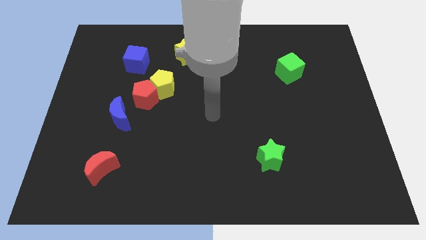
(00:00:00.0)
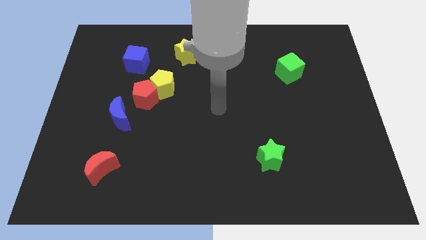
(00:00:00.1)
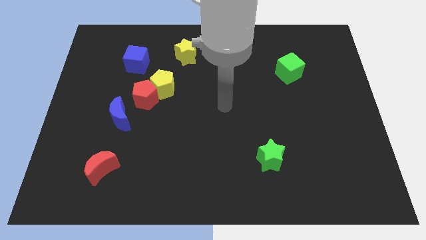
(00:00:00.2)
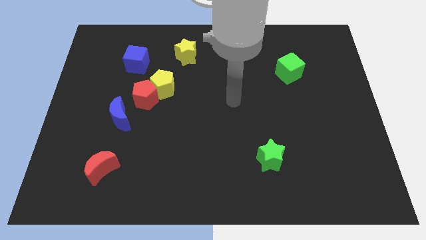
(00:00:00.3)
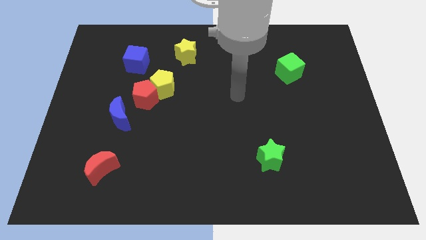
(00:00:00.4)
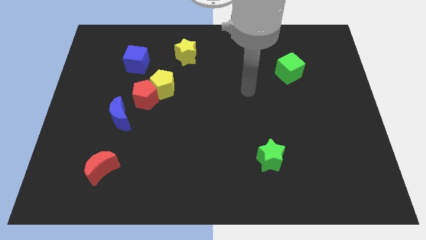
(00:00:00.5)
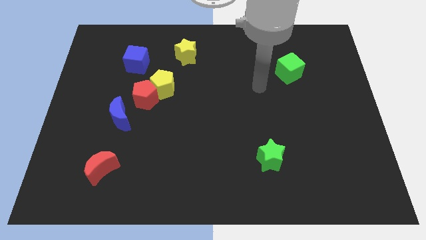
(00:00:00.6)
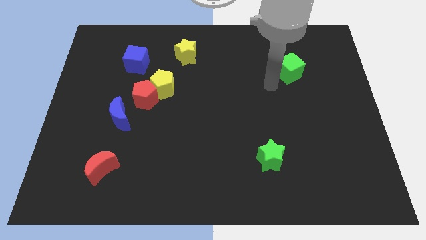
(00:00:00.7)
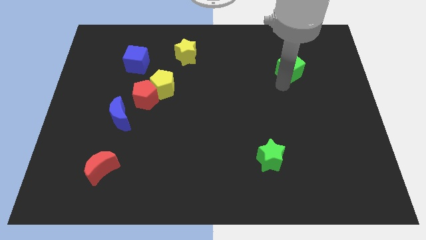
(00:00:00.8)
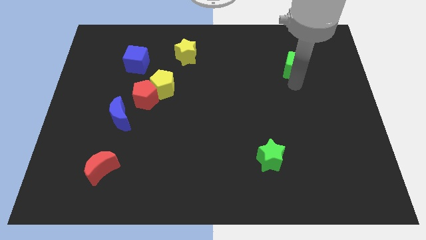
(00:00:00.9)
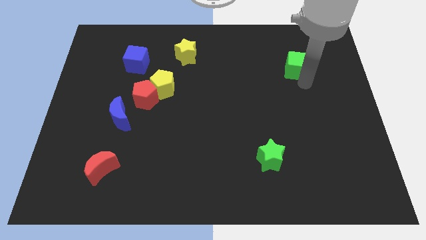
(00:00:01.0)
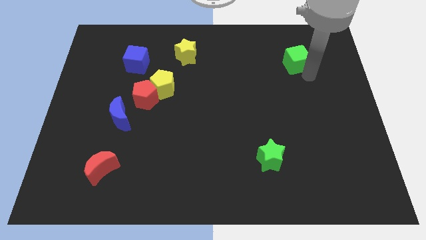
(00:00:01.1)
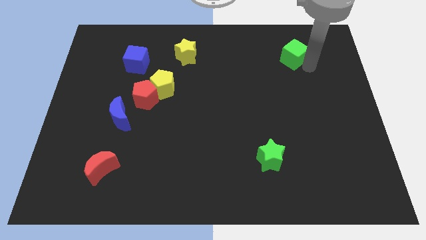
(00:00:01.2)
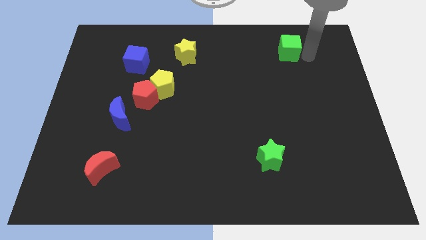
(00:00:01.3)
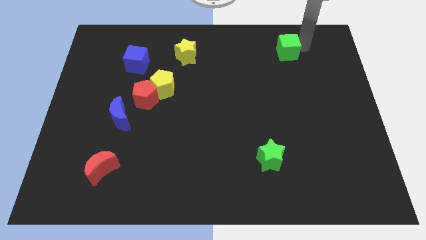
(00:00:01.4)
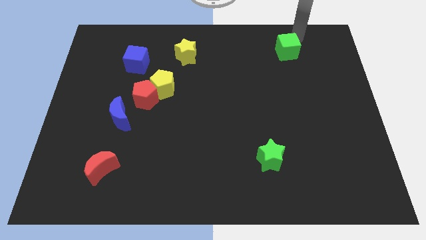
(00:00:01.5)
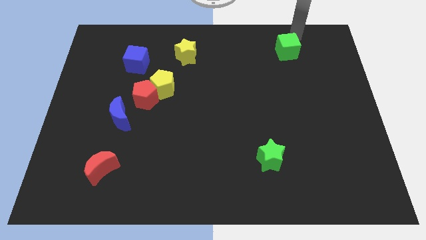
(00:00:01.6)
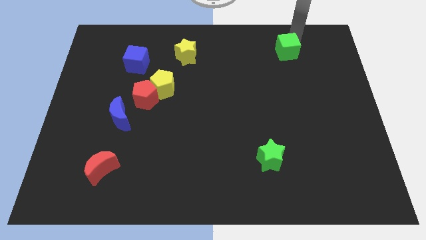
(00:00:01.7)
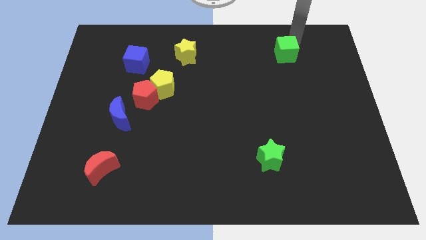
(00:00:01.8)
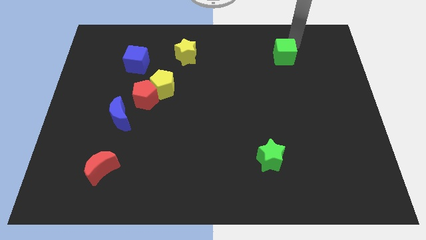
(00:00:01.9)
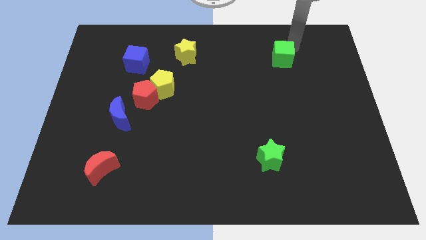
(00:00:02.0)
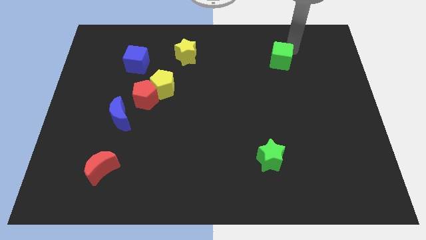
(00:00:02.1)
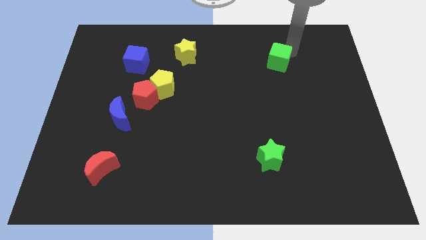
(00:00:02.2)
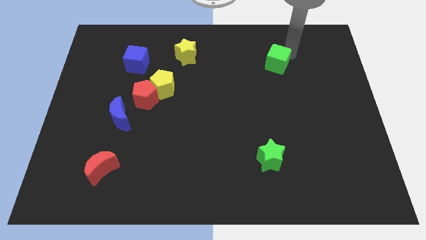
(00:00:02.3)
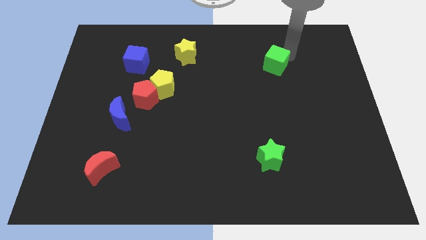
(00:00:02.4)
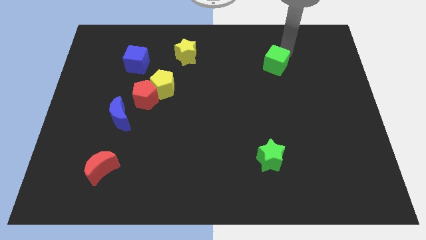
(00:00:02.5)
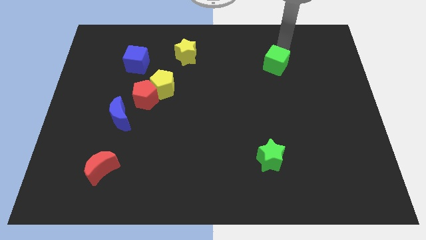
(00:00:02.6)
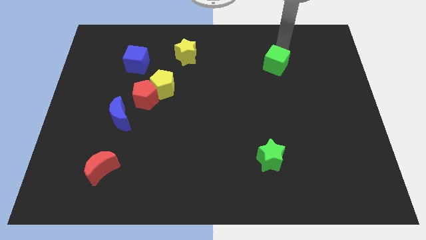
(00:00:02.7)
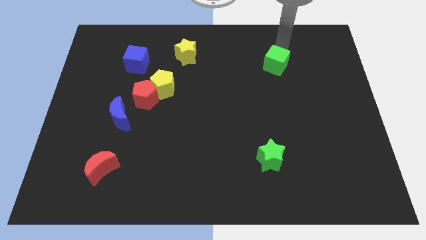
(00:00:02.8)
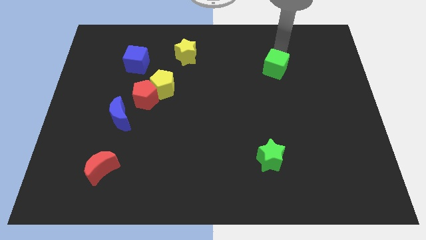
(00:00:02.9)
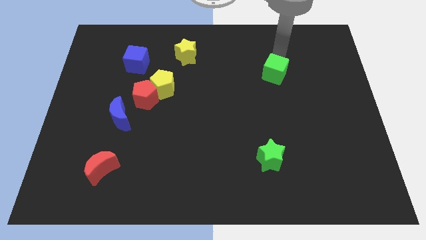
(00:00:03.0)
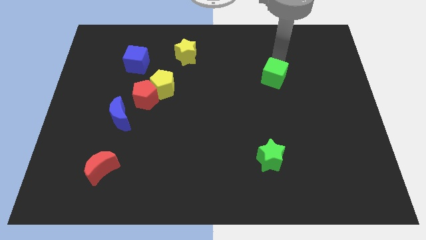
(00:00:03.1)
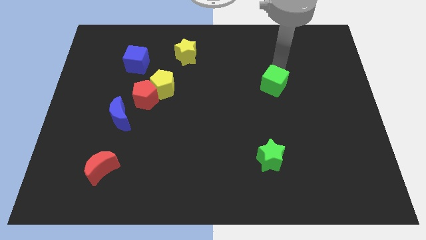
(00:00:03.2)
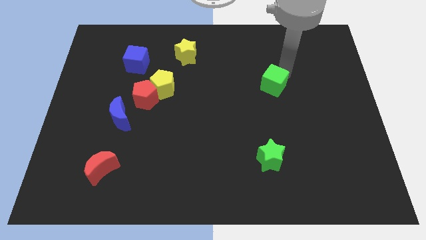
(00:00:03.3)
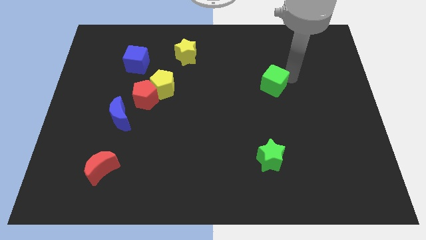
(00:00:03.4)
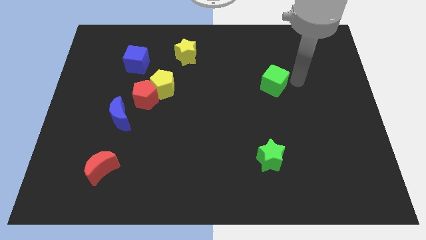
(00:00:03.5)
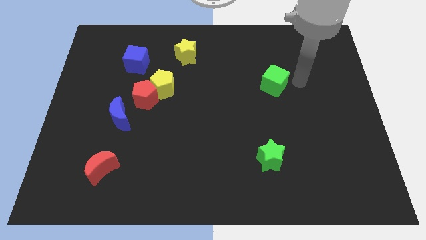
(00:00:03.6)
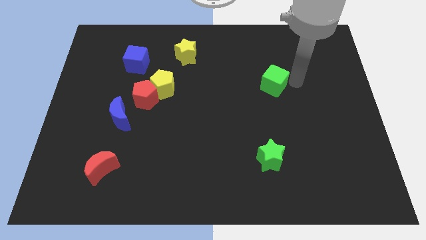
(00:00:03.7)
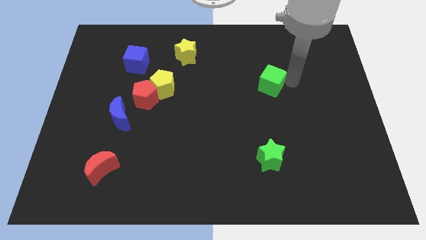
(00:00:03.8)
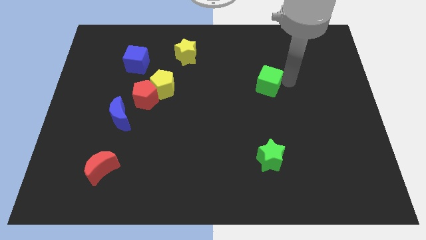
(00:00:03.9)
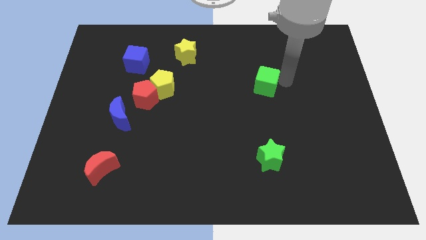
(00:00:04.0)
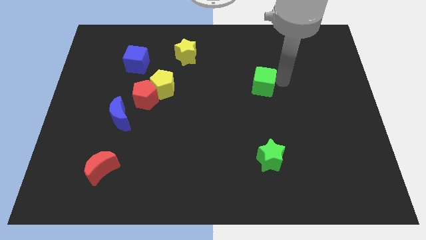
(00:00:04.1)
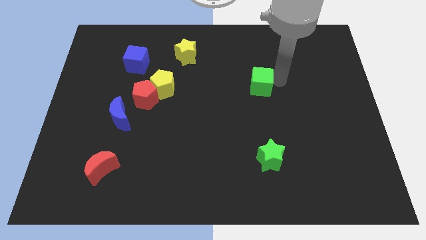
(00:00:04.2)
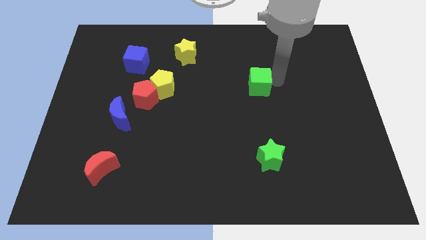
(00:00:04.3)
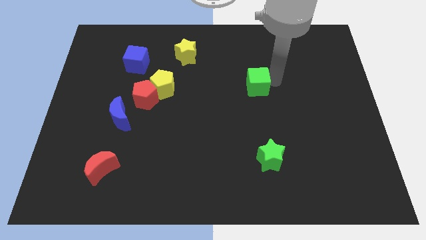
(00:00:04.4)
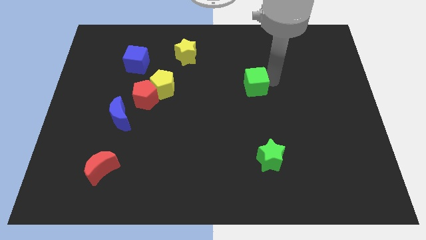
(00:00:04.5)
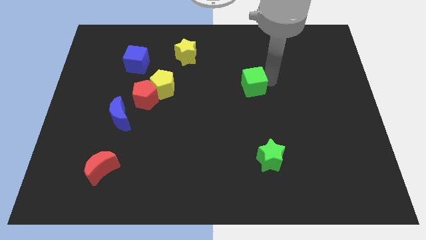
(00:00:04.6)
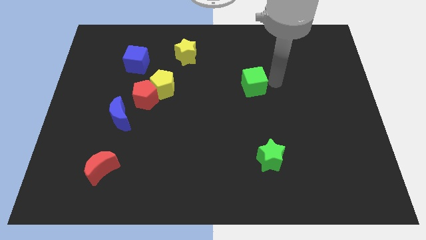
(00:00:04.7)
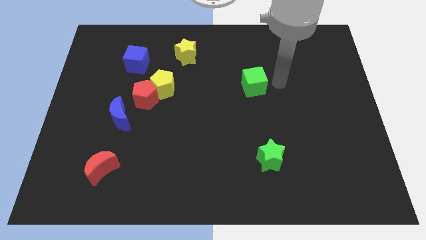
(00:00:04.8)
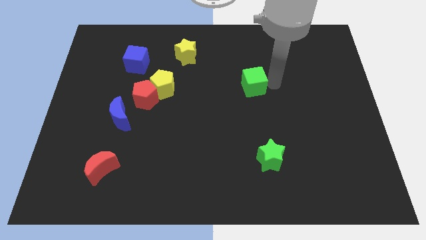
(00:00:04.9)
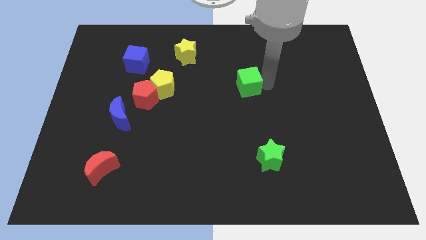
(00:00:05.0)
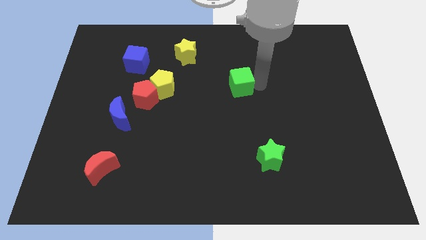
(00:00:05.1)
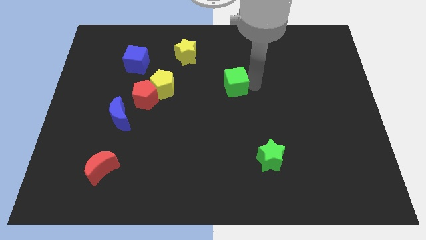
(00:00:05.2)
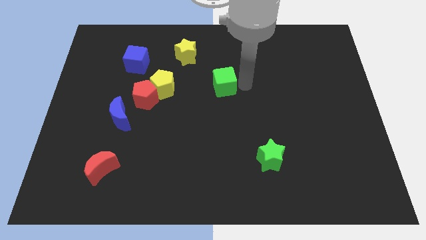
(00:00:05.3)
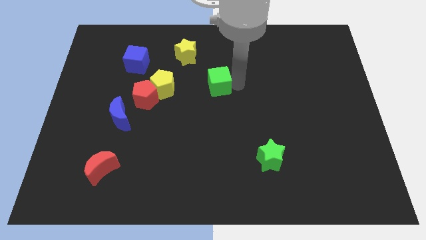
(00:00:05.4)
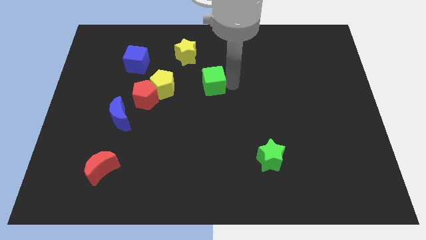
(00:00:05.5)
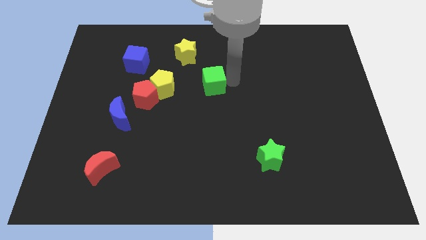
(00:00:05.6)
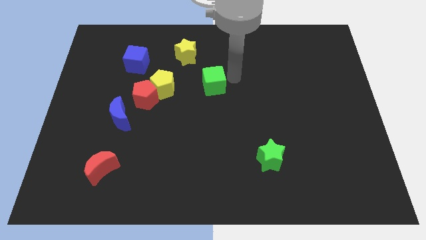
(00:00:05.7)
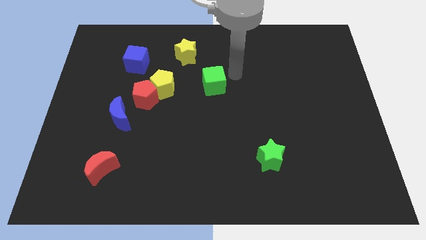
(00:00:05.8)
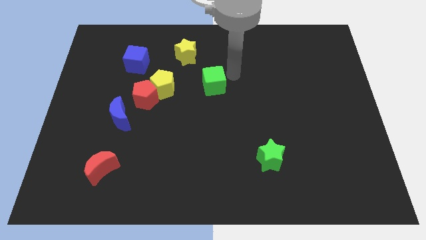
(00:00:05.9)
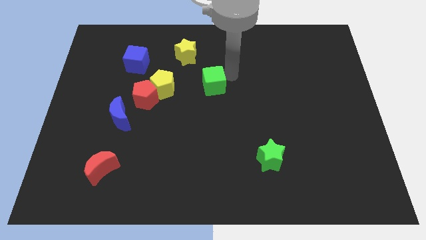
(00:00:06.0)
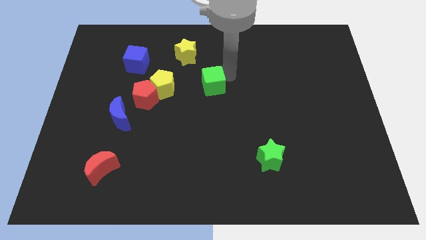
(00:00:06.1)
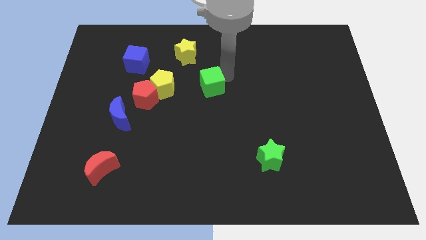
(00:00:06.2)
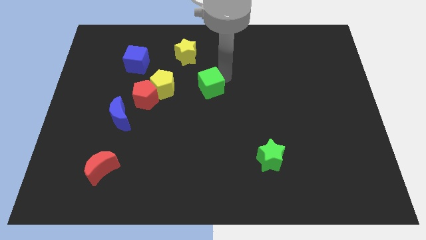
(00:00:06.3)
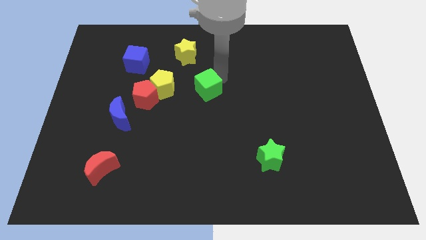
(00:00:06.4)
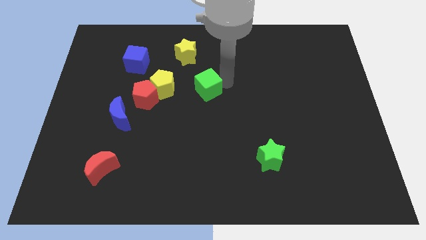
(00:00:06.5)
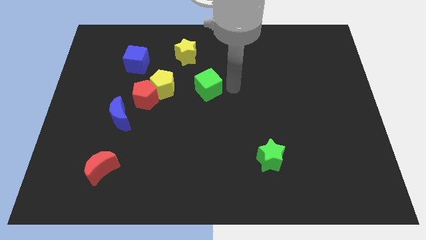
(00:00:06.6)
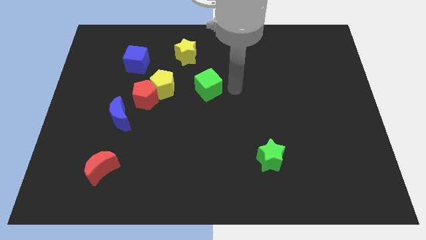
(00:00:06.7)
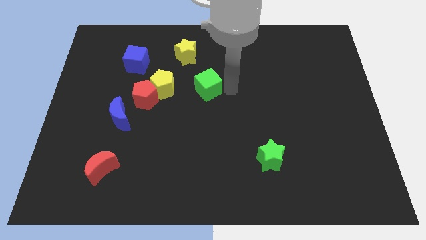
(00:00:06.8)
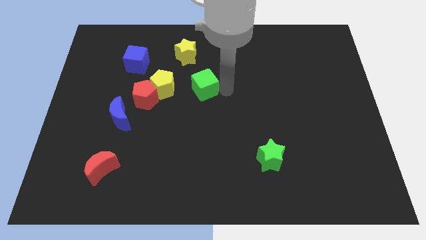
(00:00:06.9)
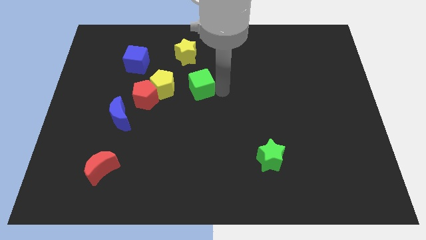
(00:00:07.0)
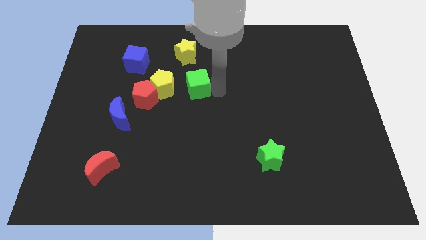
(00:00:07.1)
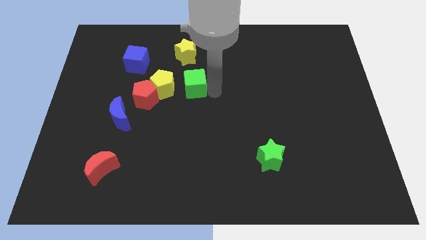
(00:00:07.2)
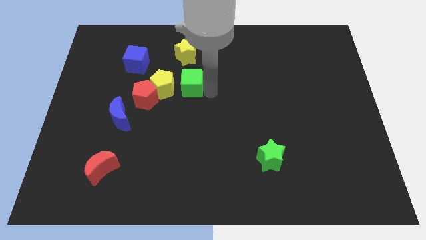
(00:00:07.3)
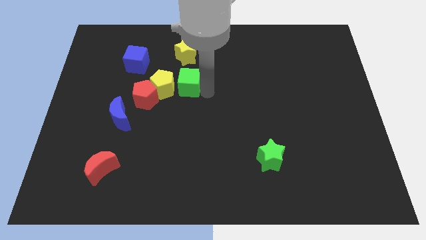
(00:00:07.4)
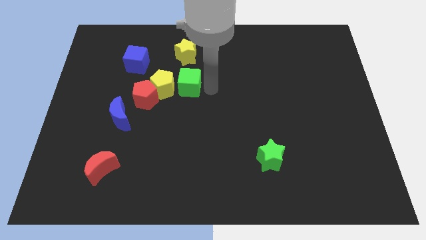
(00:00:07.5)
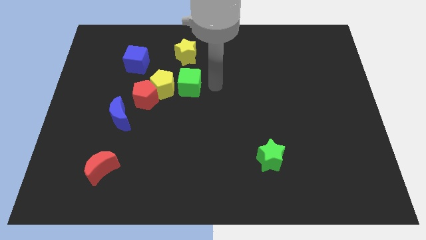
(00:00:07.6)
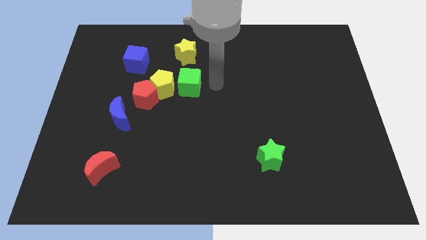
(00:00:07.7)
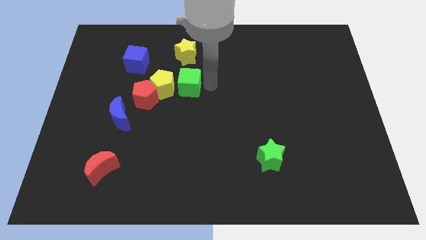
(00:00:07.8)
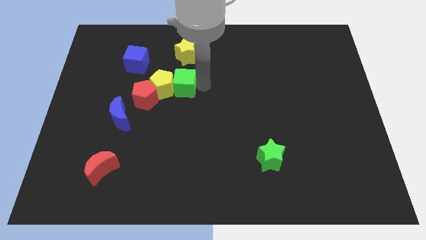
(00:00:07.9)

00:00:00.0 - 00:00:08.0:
put the green cube close to the yellow pentagon
